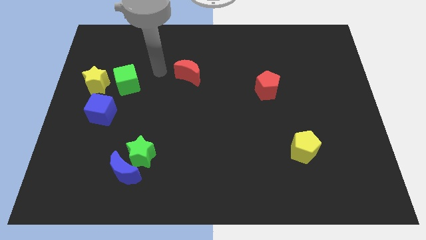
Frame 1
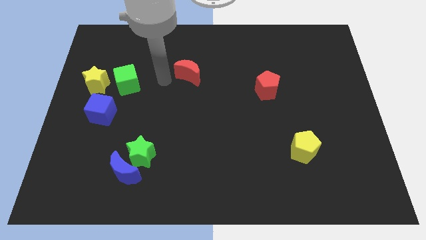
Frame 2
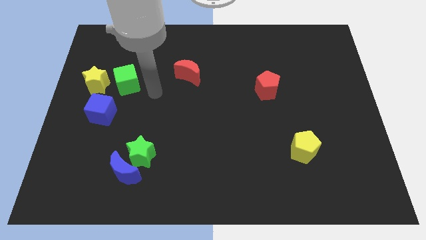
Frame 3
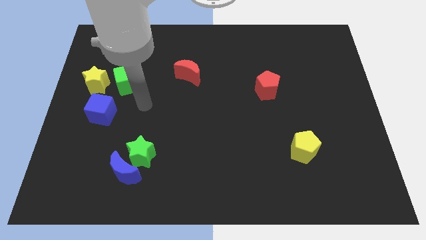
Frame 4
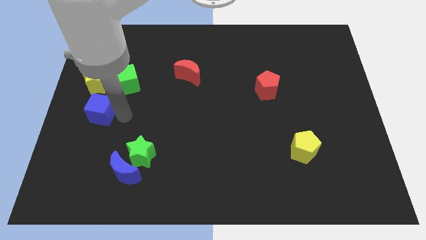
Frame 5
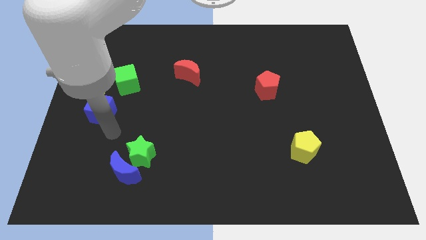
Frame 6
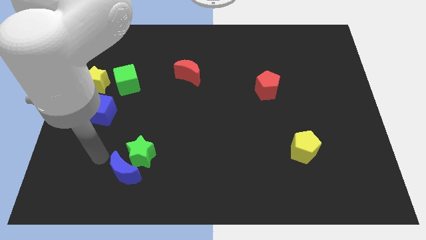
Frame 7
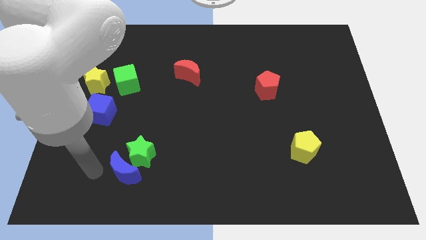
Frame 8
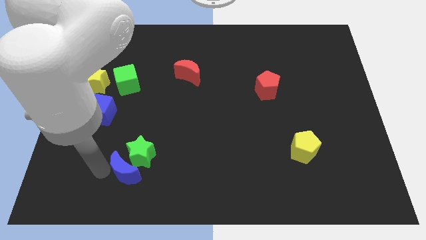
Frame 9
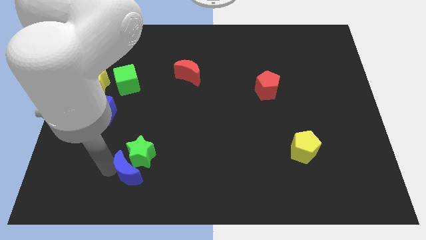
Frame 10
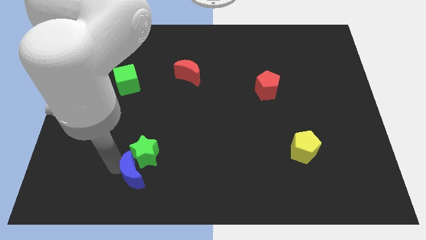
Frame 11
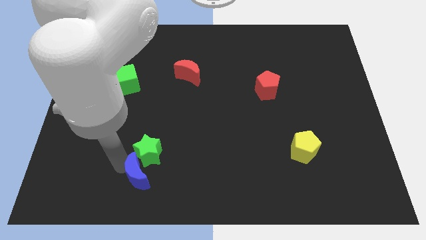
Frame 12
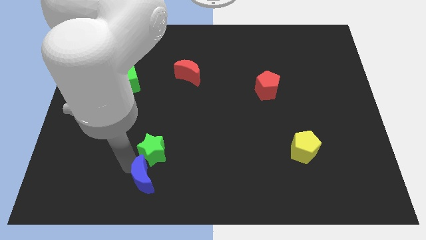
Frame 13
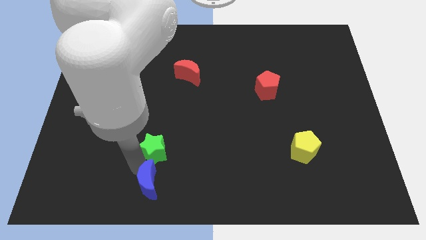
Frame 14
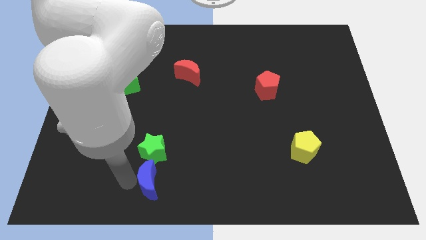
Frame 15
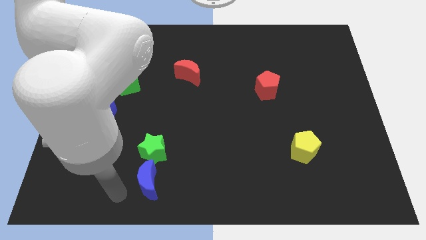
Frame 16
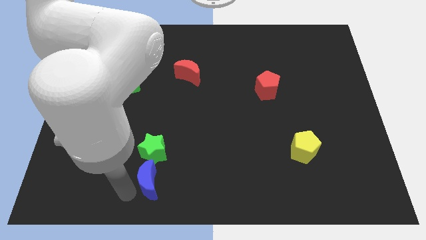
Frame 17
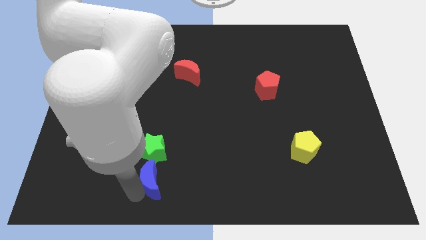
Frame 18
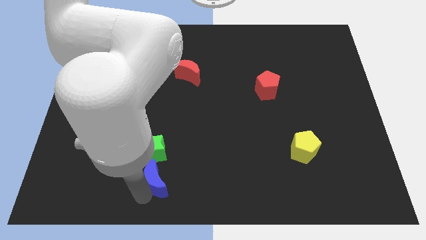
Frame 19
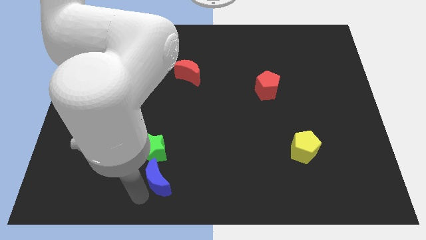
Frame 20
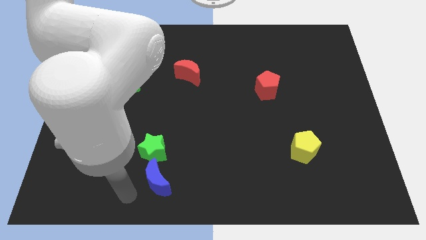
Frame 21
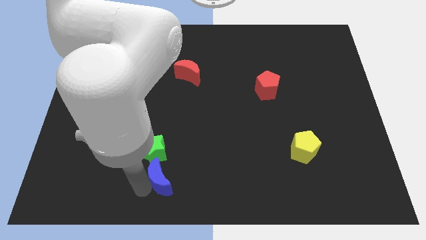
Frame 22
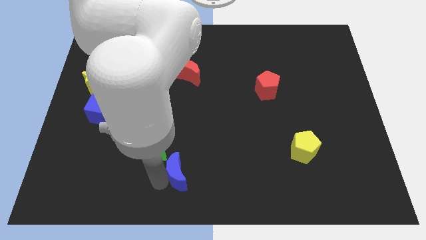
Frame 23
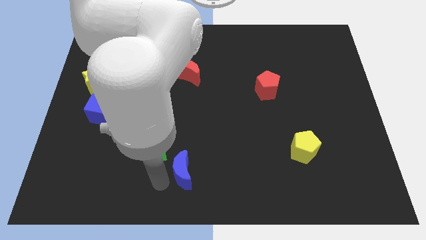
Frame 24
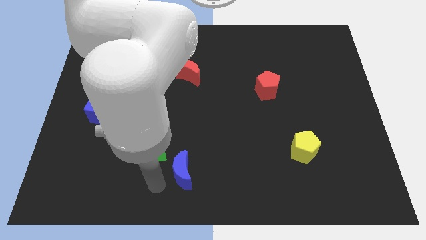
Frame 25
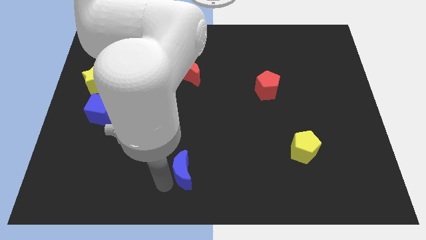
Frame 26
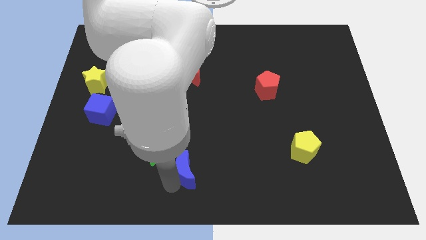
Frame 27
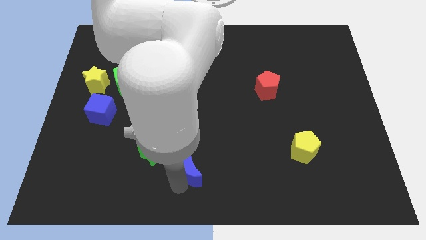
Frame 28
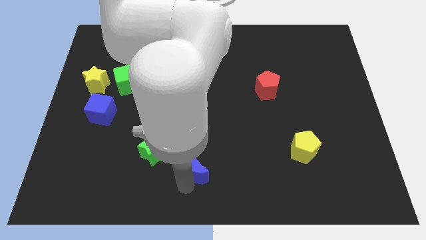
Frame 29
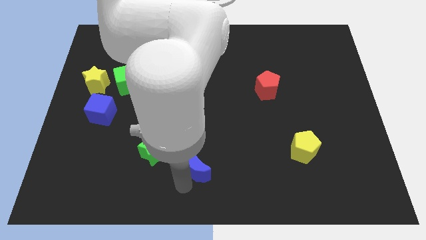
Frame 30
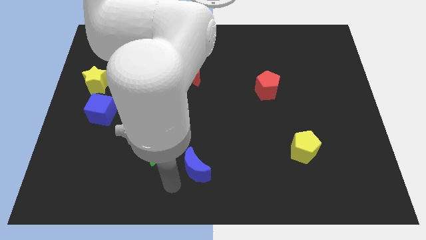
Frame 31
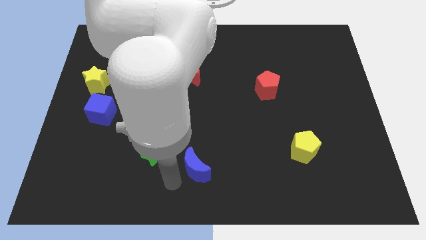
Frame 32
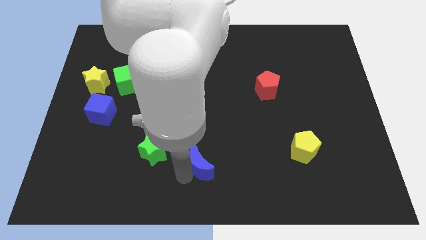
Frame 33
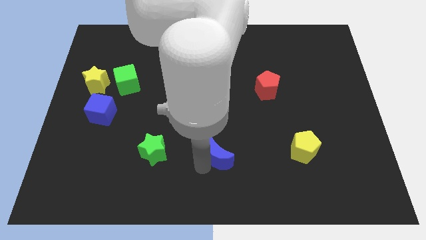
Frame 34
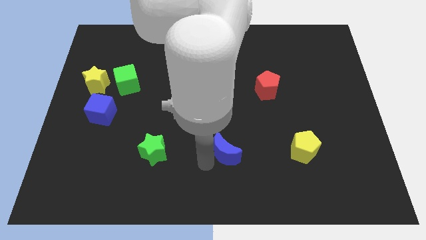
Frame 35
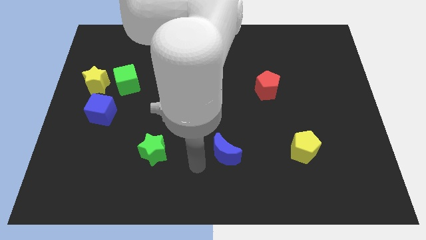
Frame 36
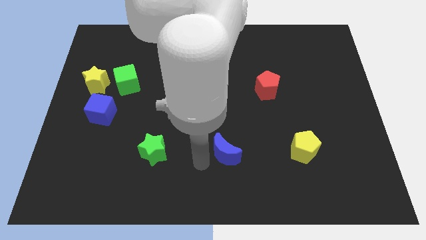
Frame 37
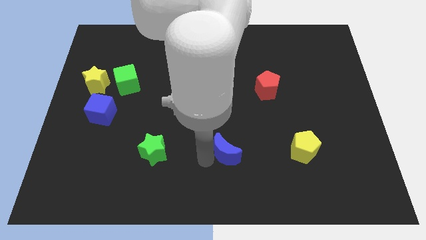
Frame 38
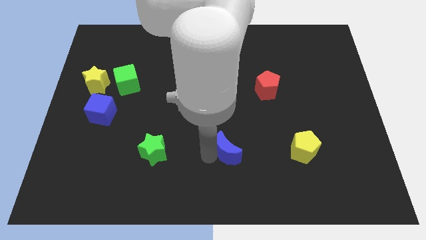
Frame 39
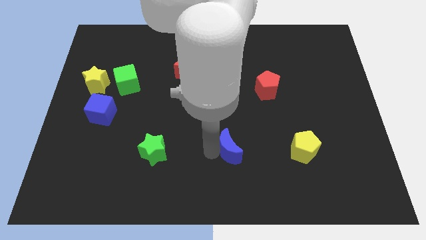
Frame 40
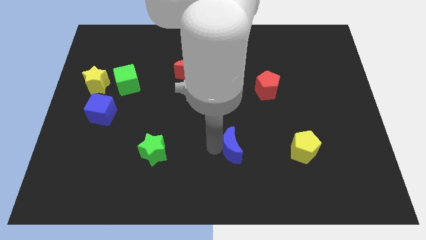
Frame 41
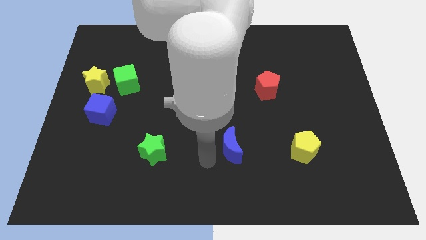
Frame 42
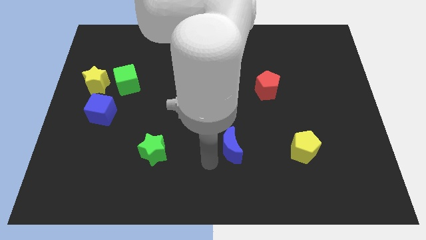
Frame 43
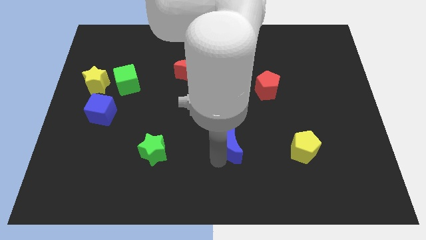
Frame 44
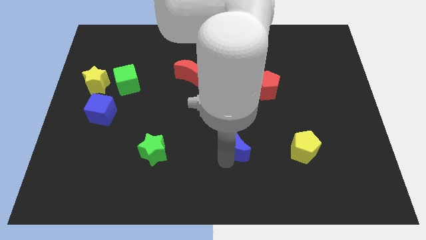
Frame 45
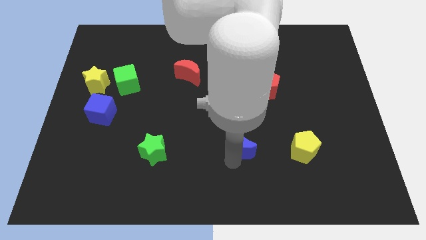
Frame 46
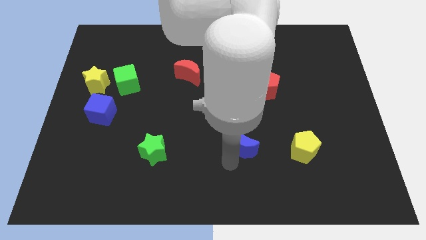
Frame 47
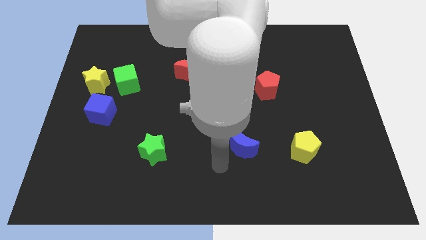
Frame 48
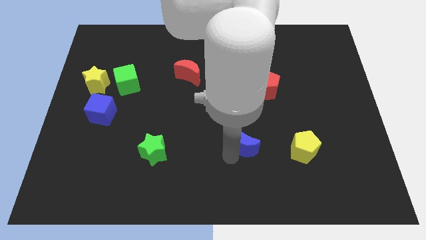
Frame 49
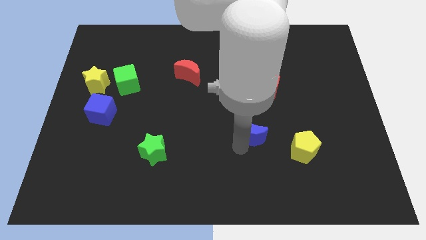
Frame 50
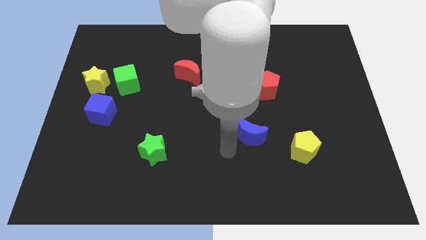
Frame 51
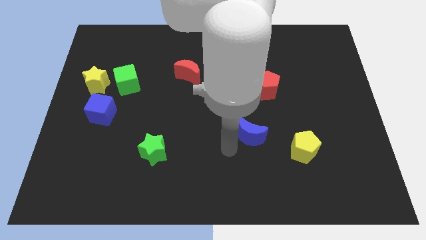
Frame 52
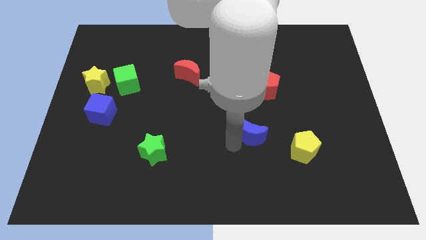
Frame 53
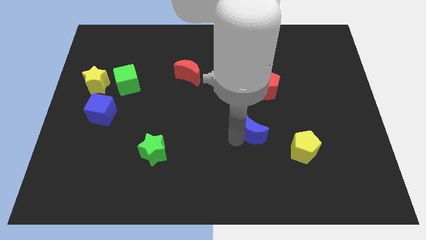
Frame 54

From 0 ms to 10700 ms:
push the blue moon below the red pentagon

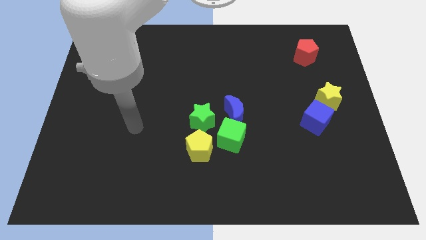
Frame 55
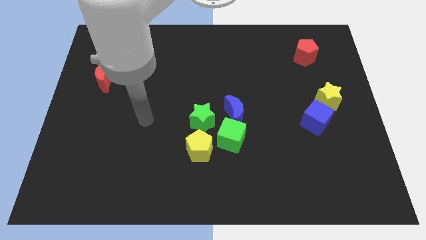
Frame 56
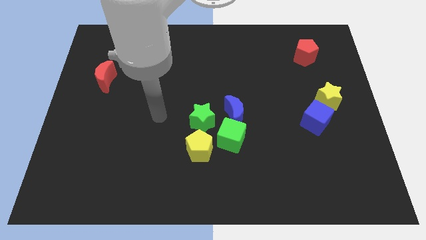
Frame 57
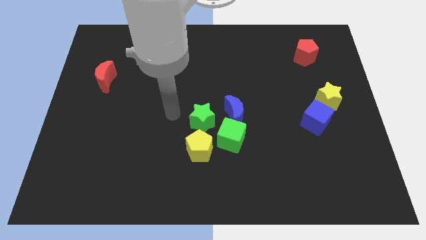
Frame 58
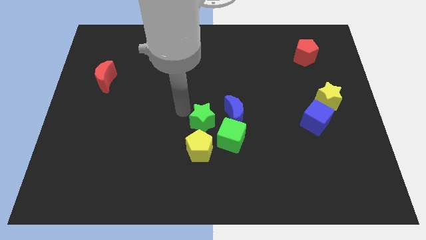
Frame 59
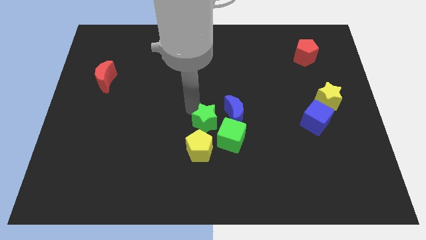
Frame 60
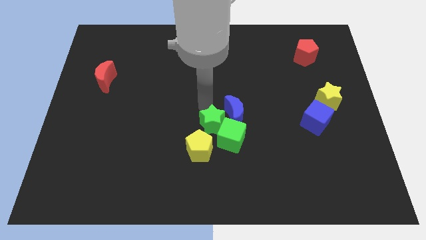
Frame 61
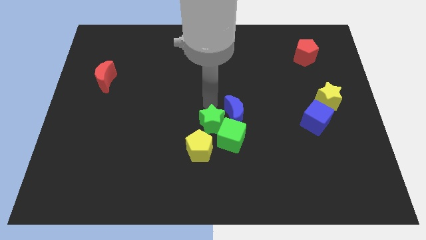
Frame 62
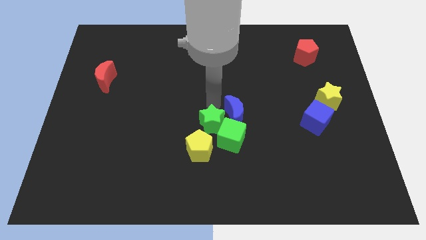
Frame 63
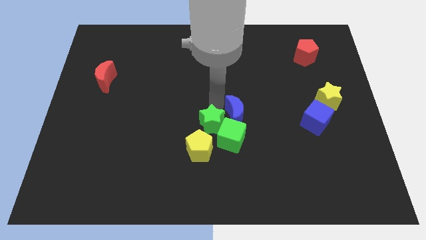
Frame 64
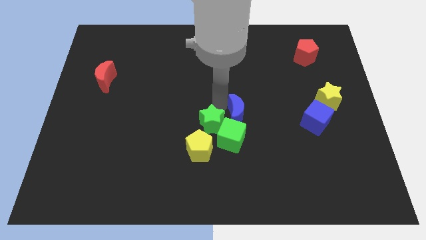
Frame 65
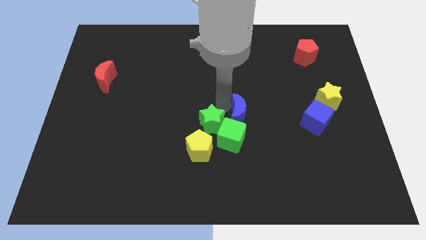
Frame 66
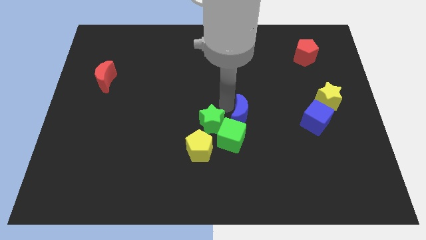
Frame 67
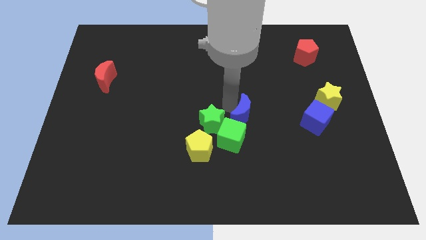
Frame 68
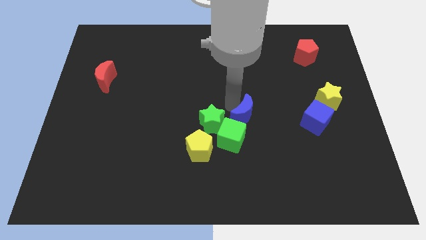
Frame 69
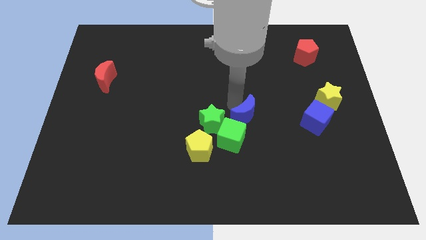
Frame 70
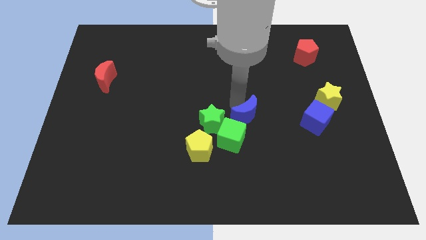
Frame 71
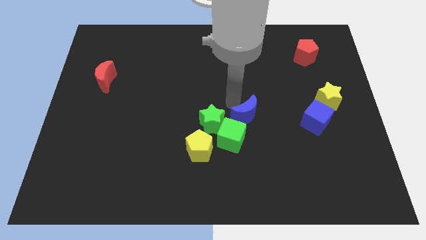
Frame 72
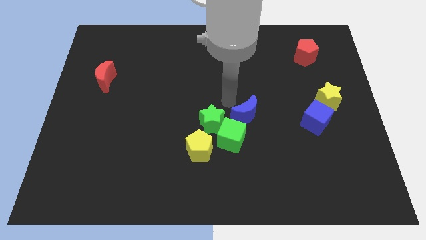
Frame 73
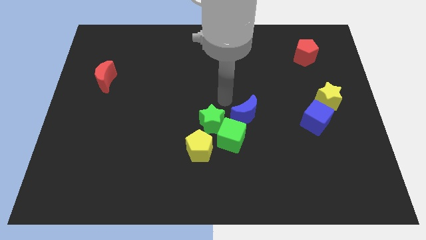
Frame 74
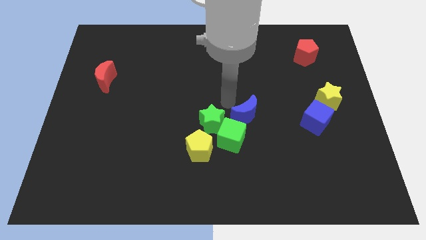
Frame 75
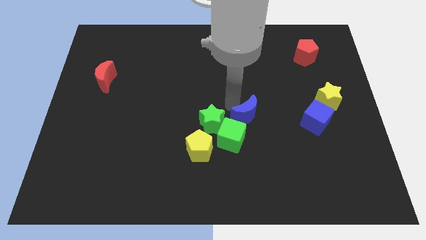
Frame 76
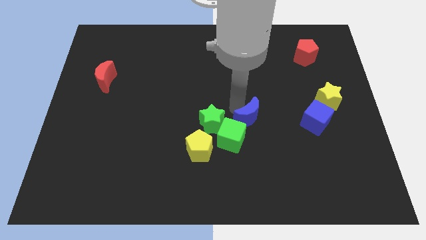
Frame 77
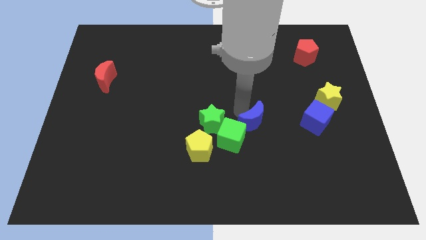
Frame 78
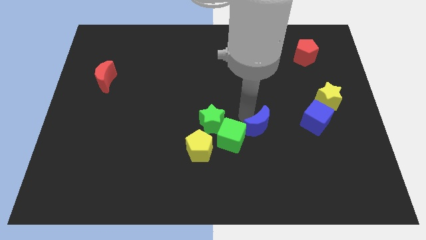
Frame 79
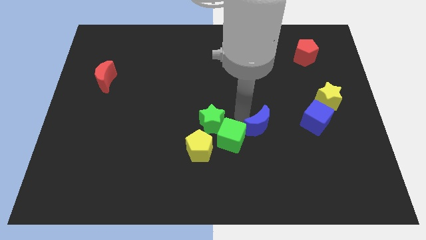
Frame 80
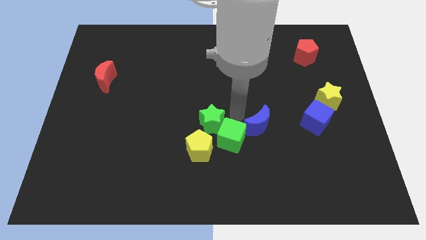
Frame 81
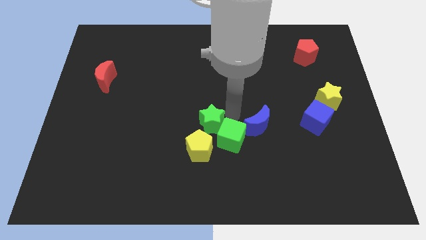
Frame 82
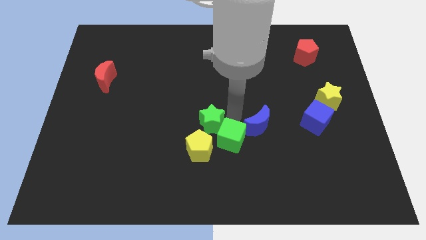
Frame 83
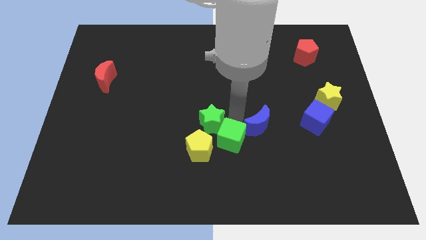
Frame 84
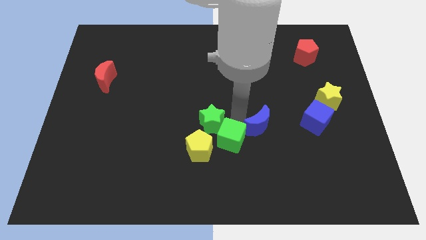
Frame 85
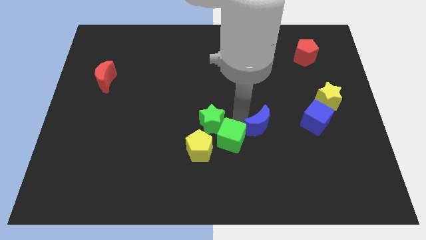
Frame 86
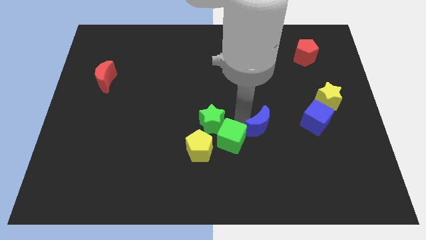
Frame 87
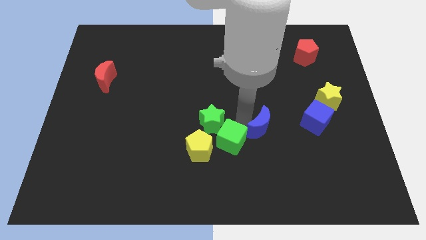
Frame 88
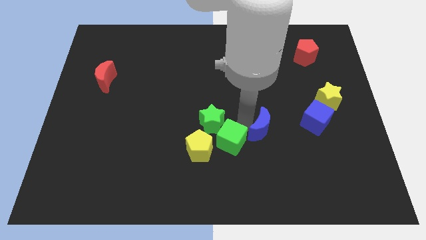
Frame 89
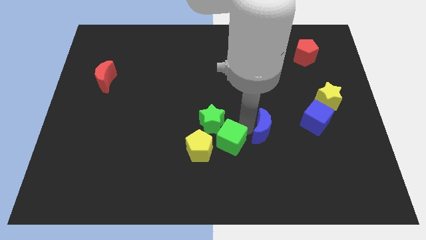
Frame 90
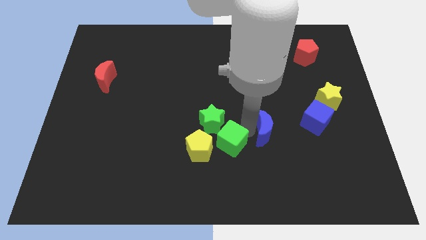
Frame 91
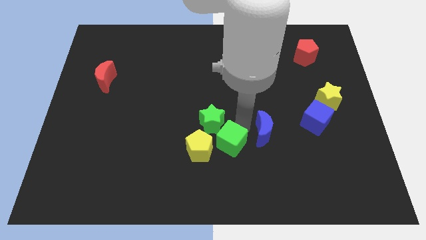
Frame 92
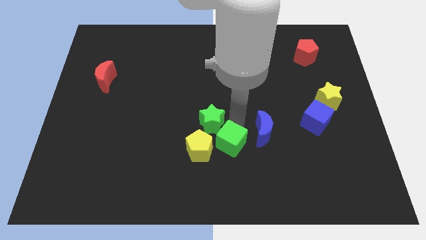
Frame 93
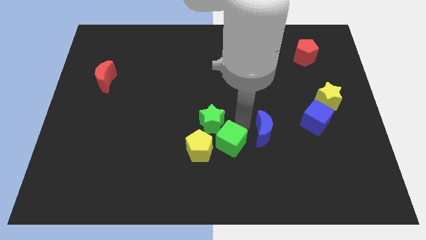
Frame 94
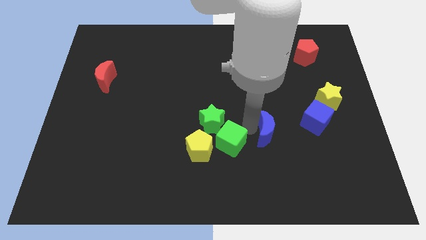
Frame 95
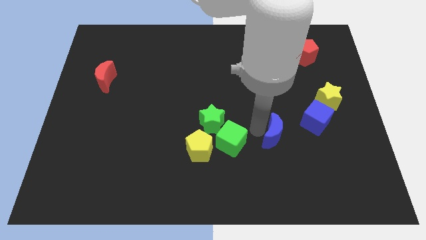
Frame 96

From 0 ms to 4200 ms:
slide the blue moon to the bottom left side of the blue cube
